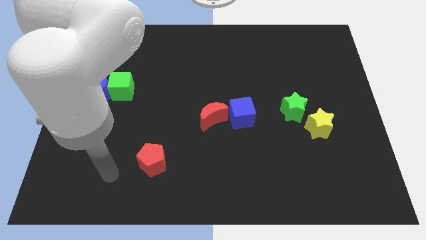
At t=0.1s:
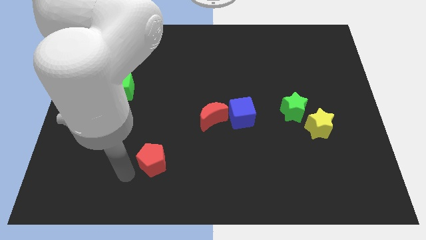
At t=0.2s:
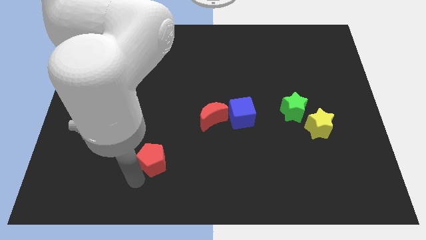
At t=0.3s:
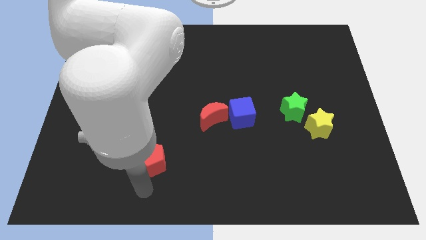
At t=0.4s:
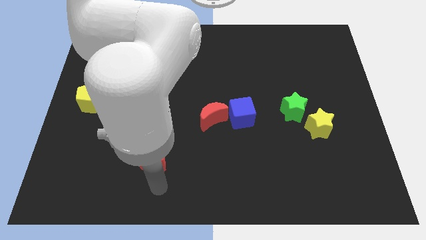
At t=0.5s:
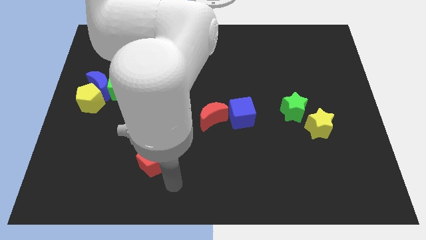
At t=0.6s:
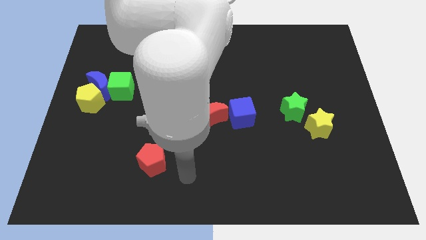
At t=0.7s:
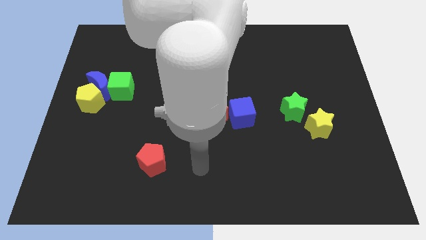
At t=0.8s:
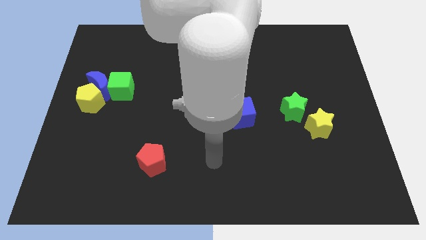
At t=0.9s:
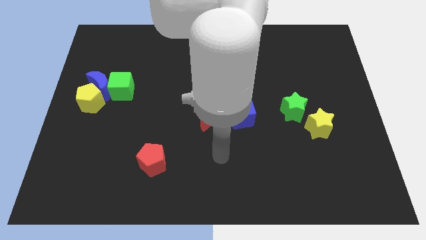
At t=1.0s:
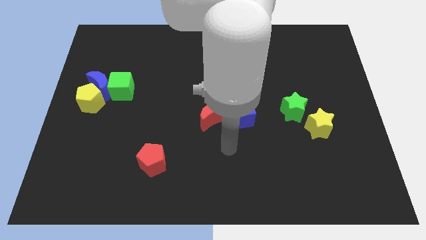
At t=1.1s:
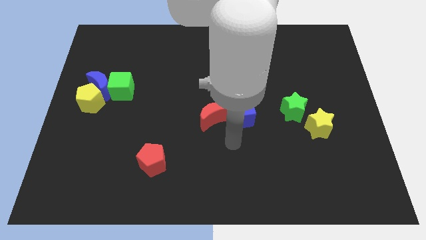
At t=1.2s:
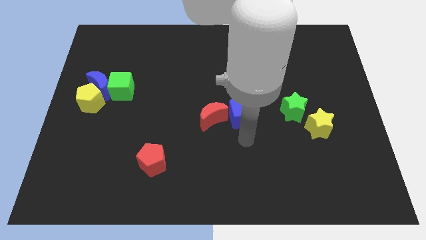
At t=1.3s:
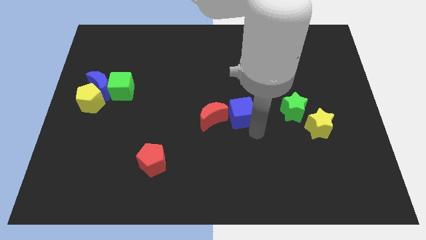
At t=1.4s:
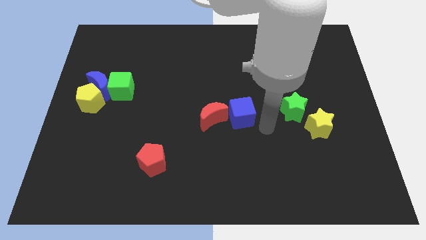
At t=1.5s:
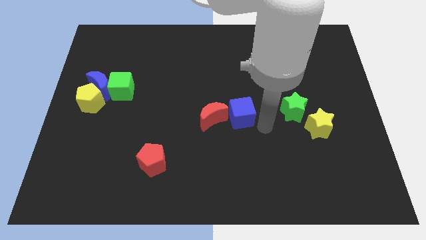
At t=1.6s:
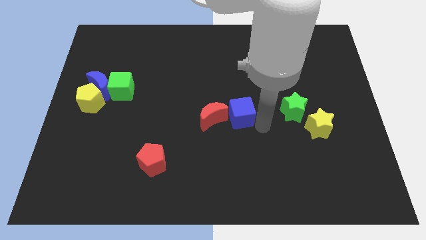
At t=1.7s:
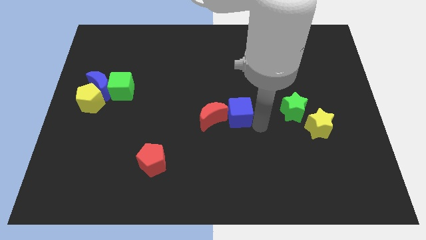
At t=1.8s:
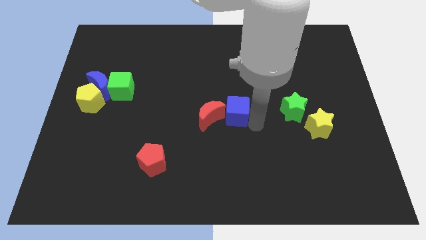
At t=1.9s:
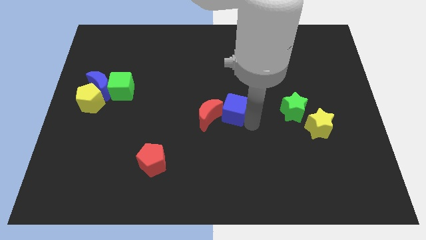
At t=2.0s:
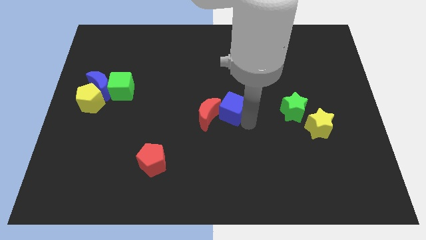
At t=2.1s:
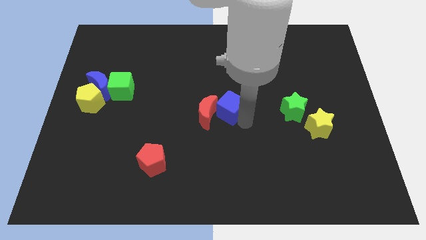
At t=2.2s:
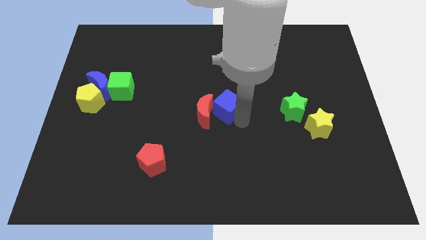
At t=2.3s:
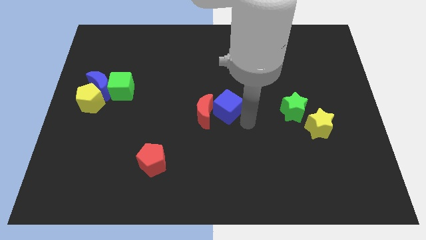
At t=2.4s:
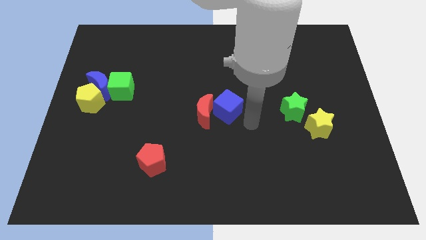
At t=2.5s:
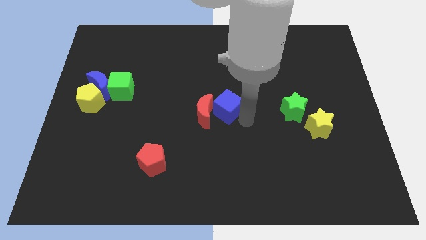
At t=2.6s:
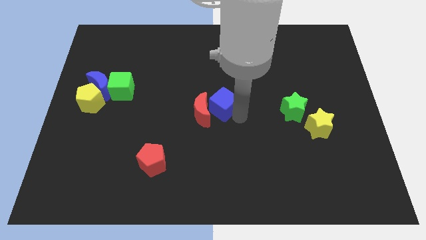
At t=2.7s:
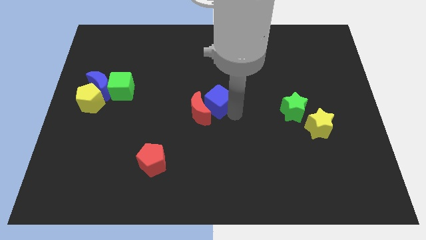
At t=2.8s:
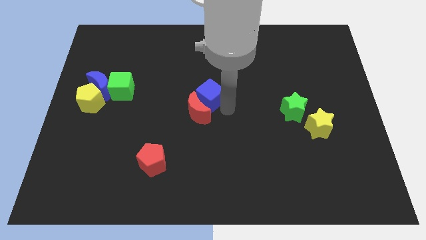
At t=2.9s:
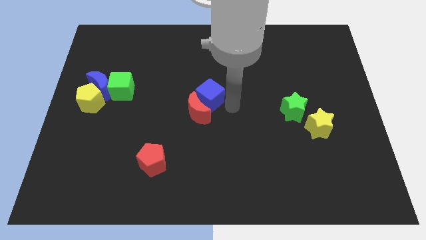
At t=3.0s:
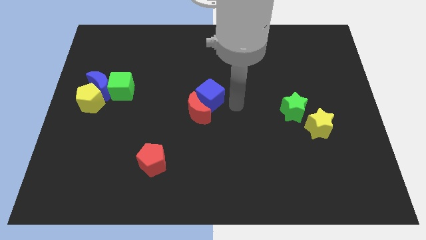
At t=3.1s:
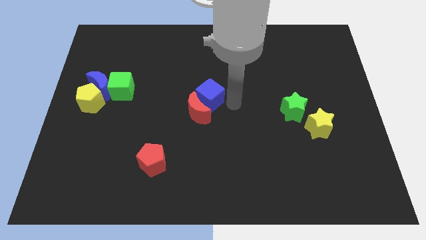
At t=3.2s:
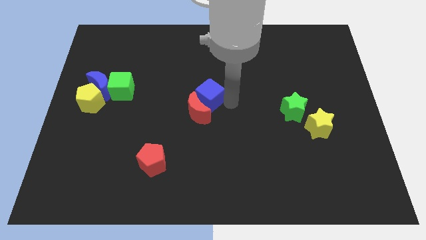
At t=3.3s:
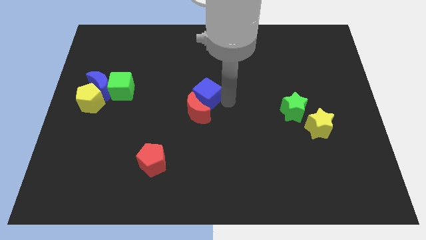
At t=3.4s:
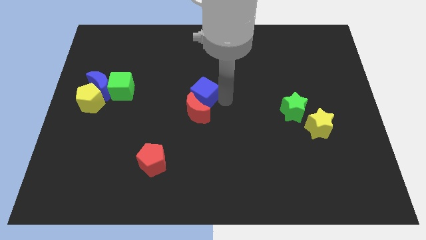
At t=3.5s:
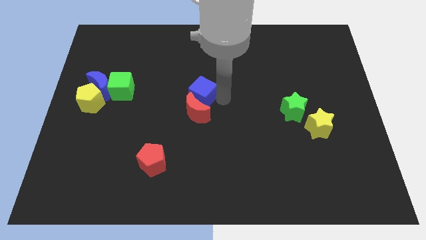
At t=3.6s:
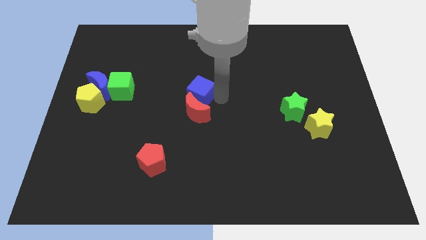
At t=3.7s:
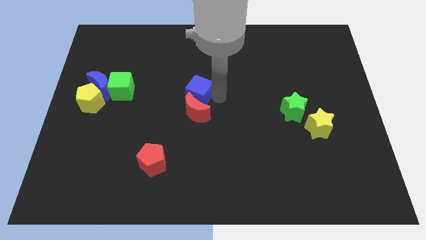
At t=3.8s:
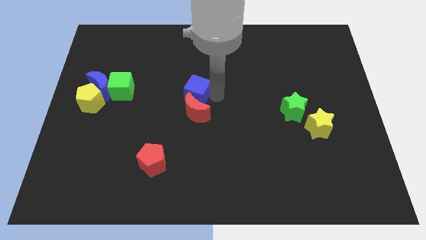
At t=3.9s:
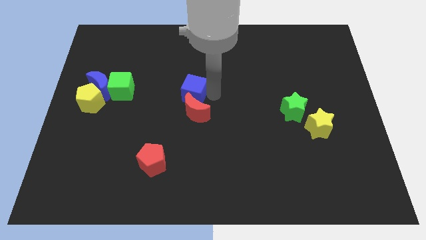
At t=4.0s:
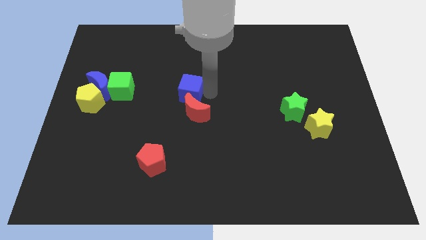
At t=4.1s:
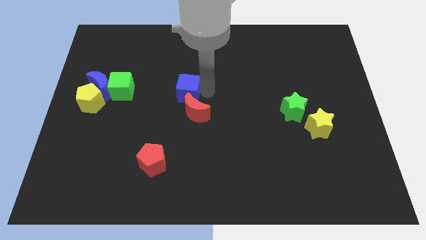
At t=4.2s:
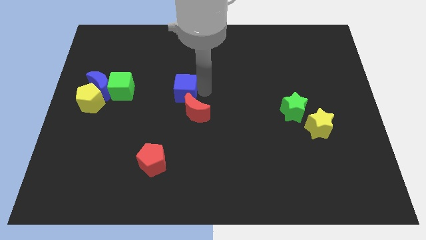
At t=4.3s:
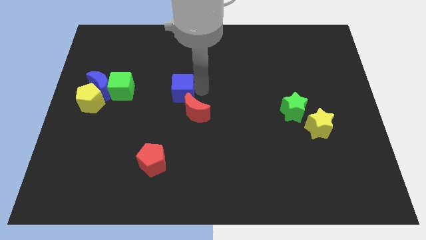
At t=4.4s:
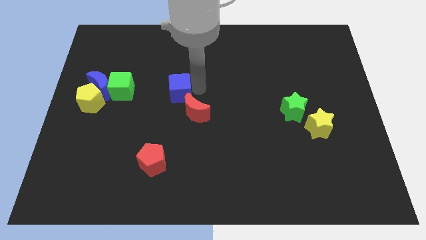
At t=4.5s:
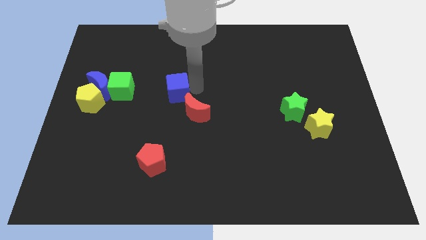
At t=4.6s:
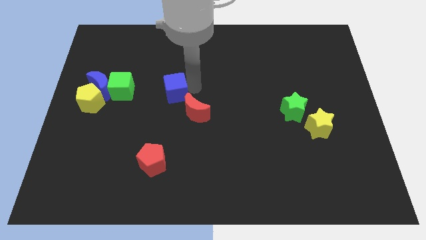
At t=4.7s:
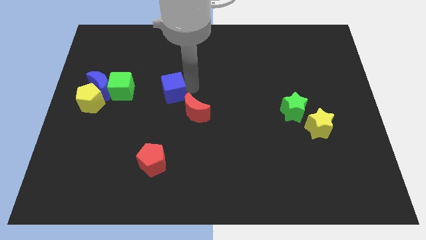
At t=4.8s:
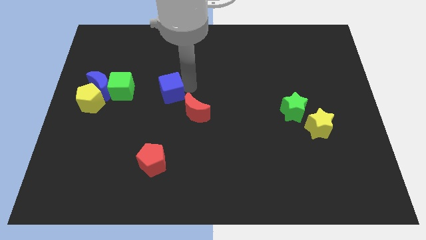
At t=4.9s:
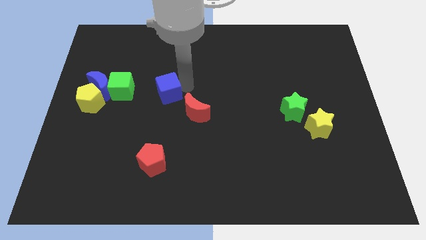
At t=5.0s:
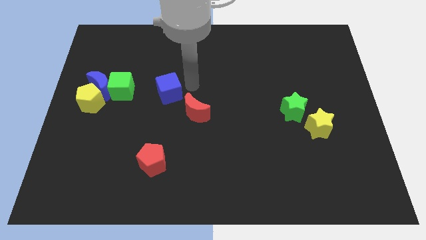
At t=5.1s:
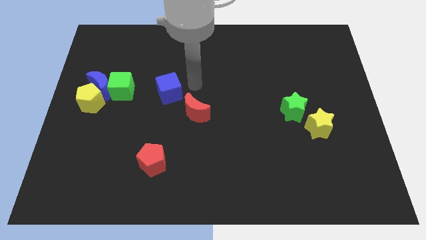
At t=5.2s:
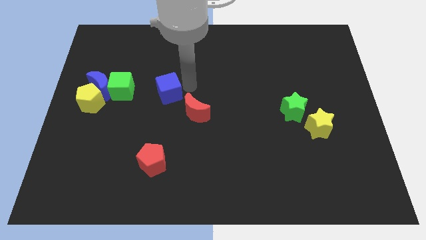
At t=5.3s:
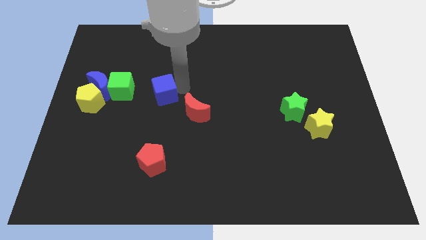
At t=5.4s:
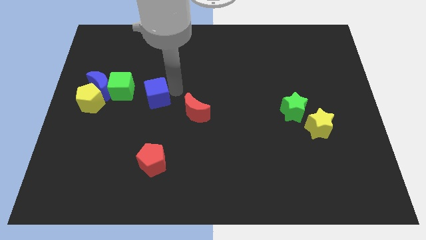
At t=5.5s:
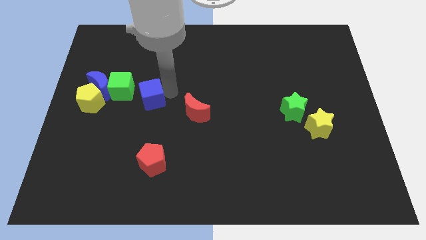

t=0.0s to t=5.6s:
move the blue cube to the left

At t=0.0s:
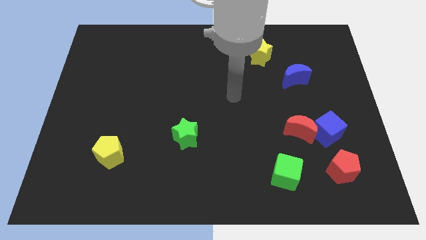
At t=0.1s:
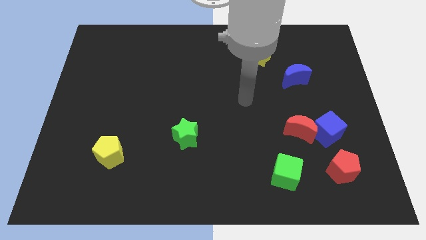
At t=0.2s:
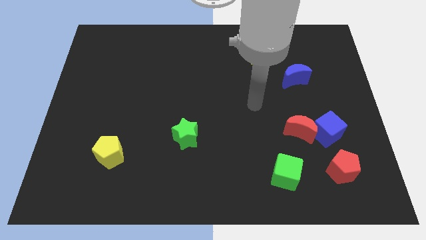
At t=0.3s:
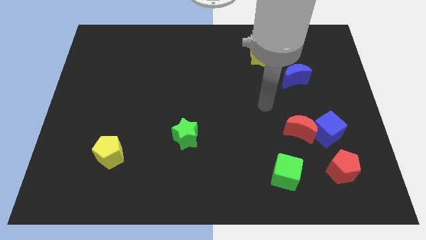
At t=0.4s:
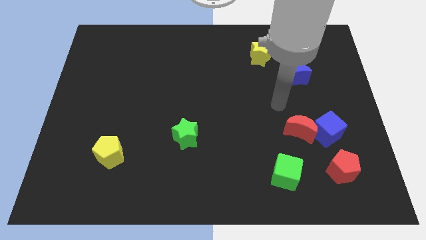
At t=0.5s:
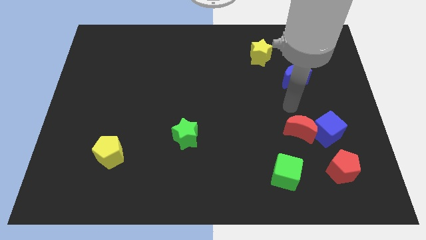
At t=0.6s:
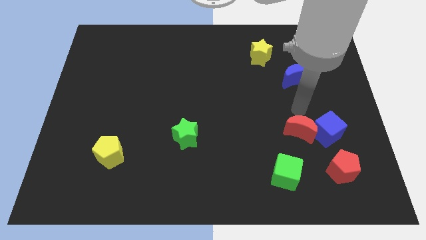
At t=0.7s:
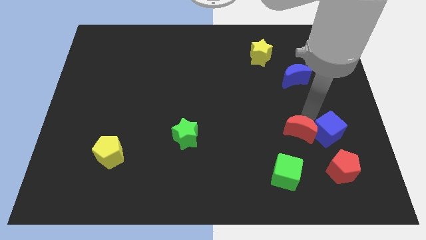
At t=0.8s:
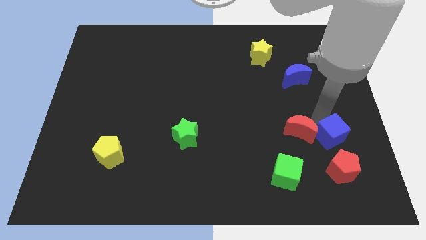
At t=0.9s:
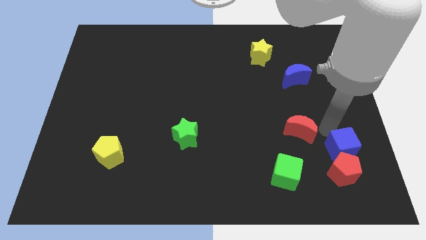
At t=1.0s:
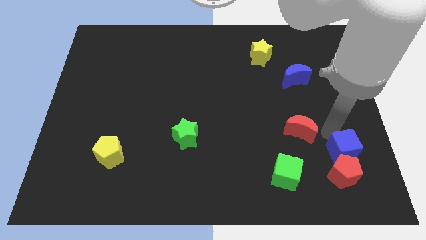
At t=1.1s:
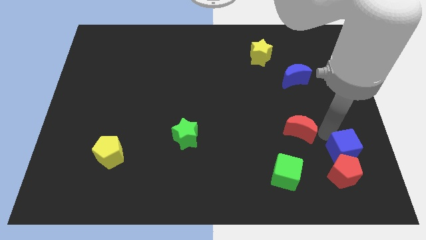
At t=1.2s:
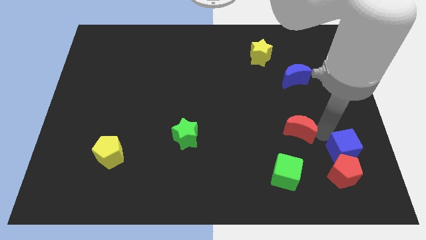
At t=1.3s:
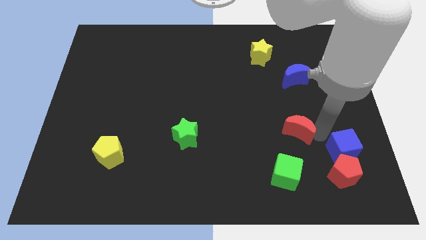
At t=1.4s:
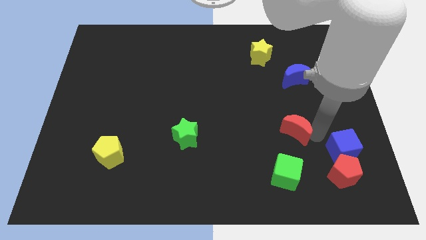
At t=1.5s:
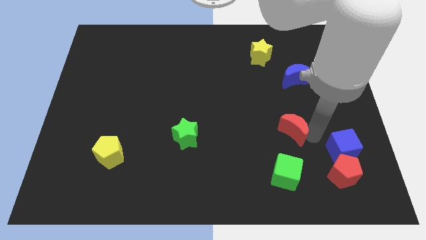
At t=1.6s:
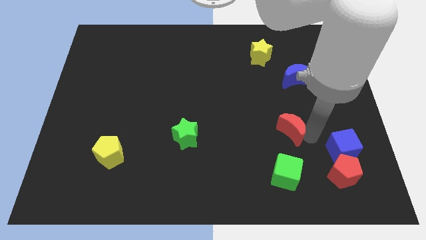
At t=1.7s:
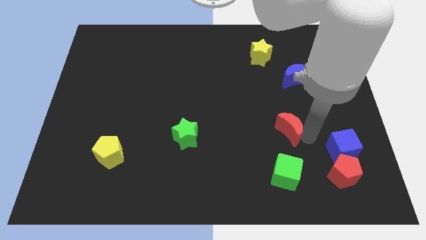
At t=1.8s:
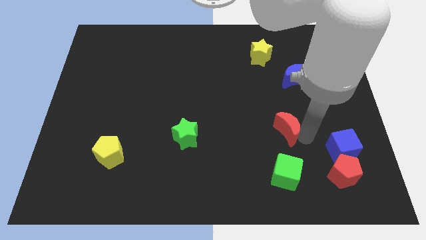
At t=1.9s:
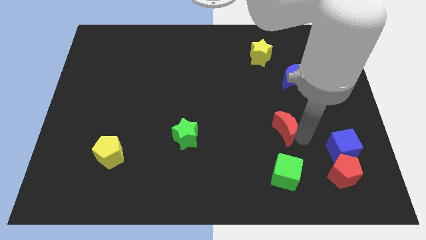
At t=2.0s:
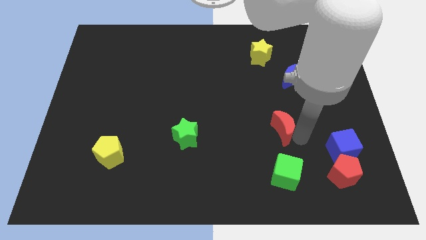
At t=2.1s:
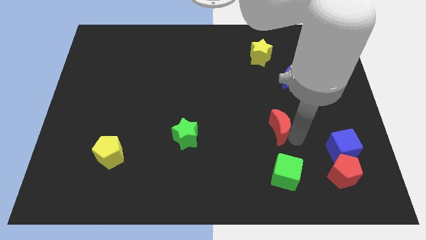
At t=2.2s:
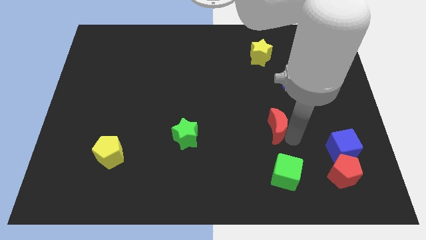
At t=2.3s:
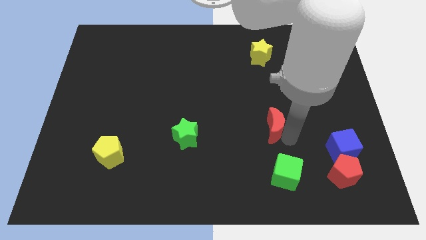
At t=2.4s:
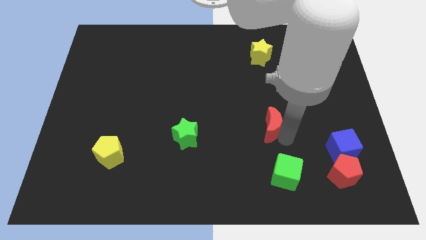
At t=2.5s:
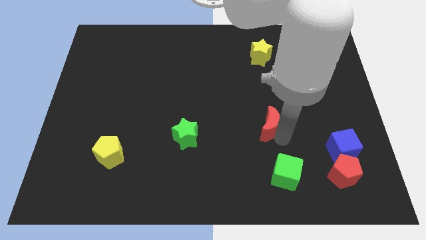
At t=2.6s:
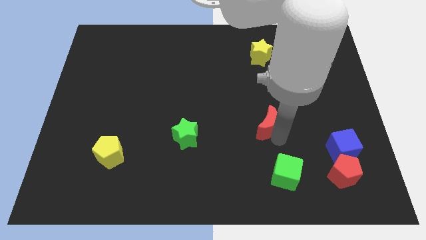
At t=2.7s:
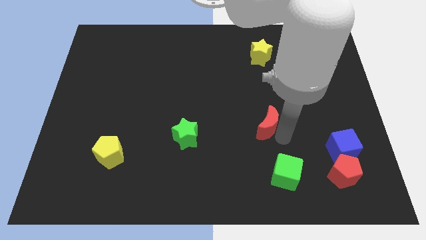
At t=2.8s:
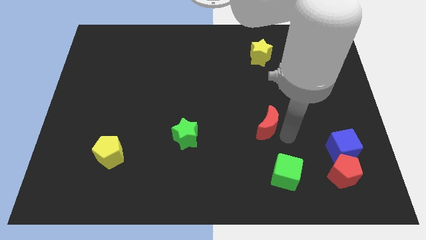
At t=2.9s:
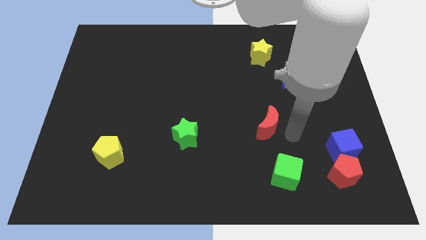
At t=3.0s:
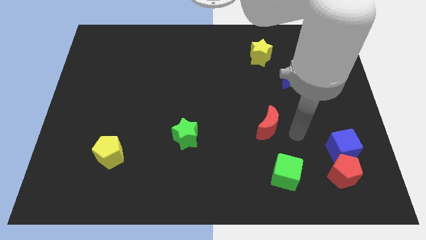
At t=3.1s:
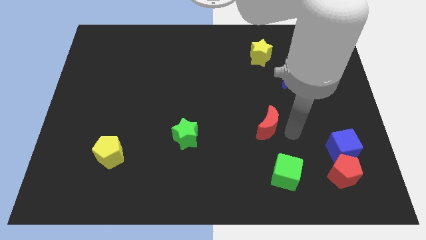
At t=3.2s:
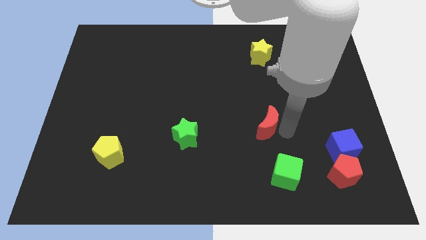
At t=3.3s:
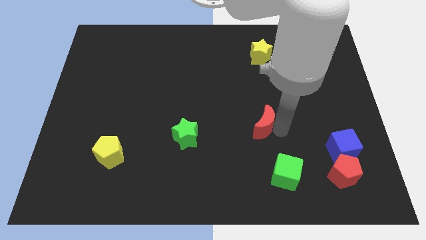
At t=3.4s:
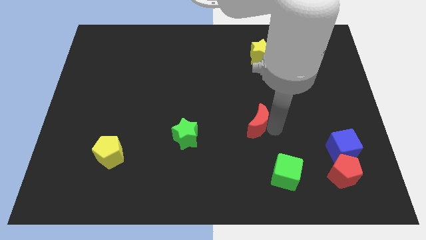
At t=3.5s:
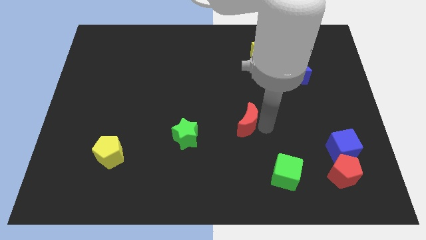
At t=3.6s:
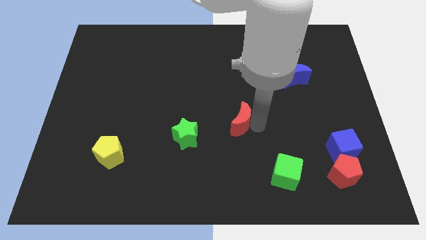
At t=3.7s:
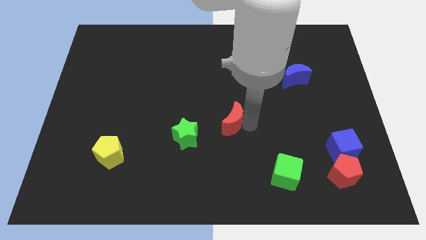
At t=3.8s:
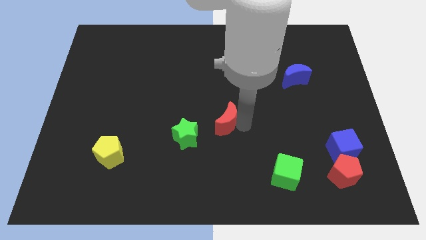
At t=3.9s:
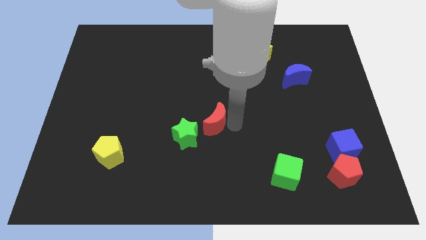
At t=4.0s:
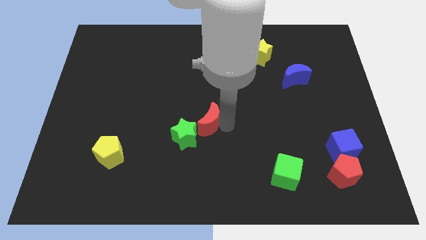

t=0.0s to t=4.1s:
slide the red moon left
